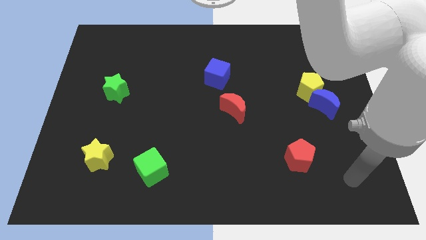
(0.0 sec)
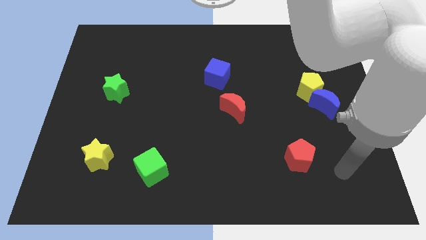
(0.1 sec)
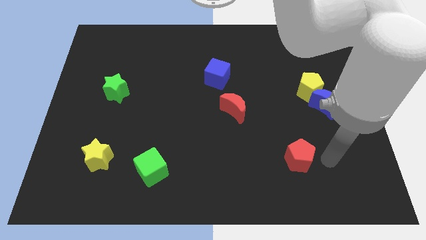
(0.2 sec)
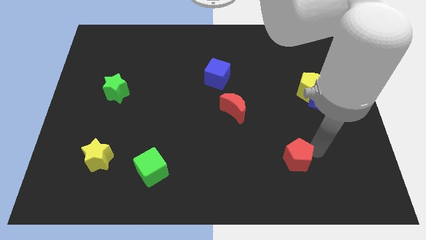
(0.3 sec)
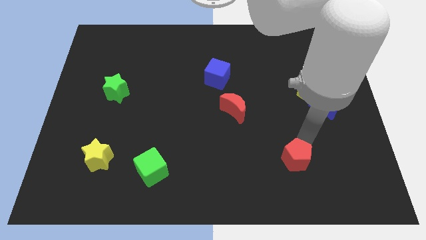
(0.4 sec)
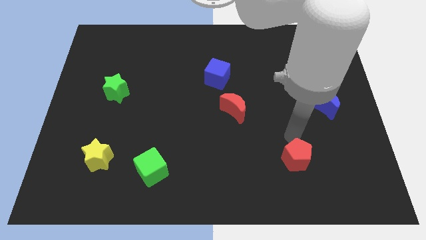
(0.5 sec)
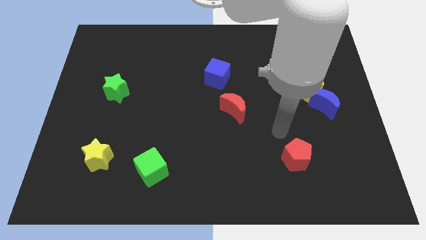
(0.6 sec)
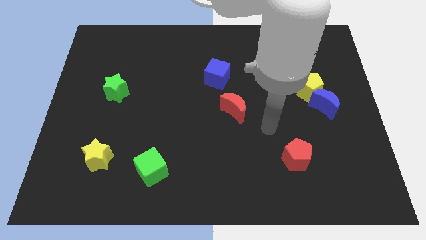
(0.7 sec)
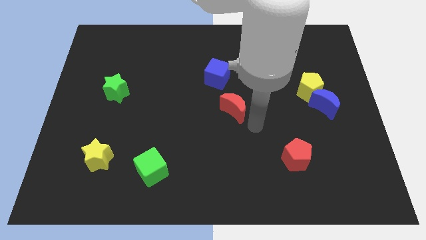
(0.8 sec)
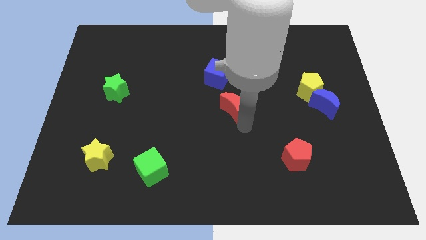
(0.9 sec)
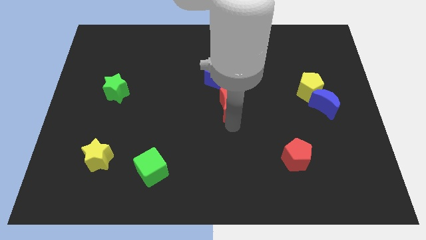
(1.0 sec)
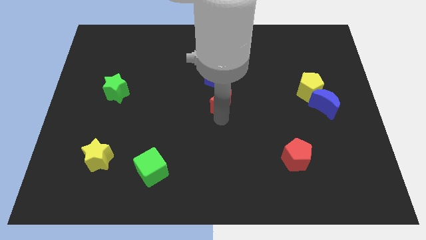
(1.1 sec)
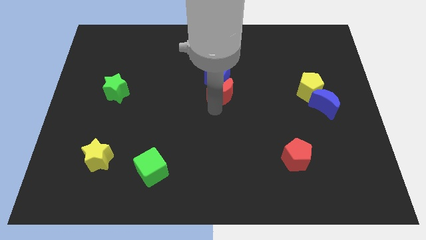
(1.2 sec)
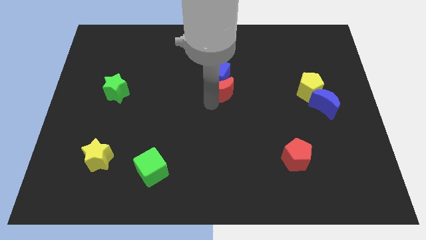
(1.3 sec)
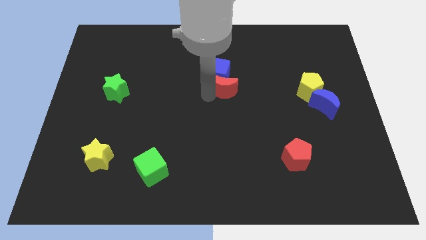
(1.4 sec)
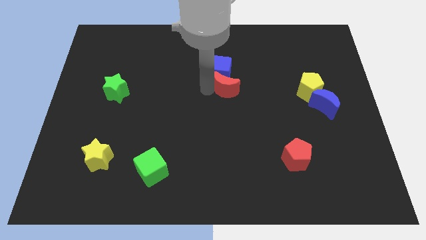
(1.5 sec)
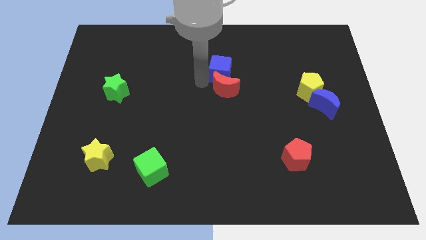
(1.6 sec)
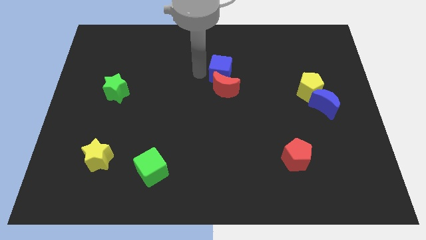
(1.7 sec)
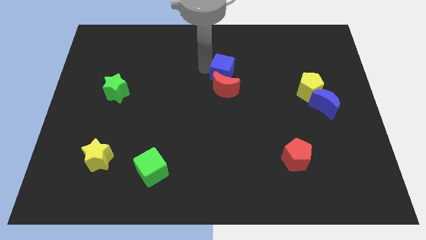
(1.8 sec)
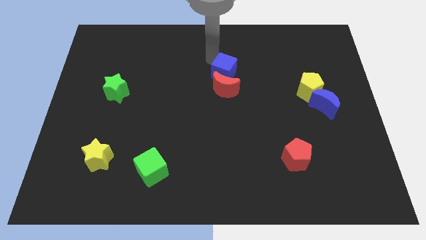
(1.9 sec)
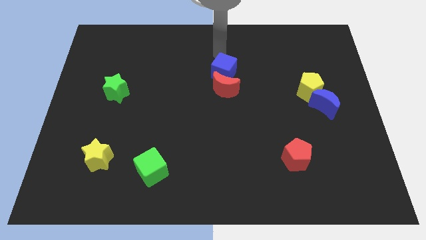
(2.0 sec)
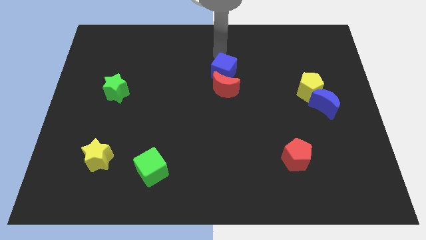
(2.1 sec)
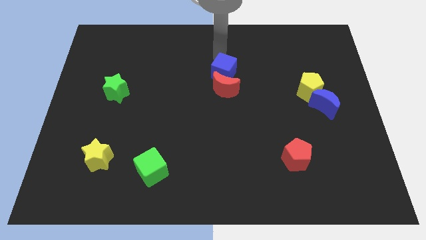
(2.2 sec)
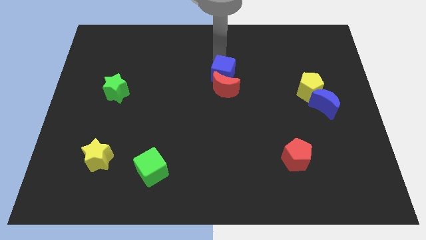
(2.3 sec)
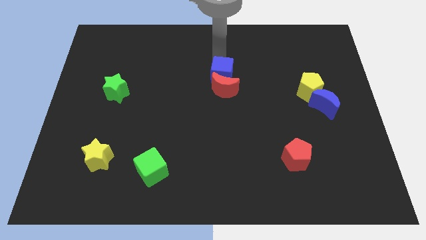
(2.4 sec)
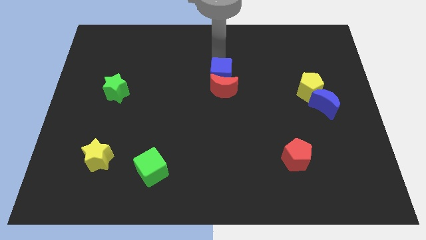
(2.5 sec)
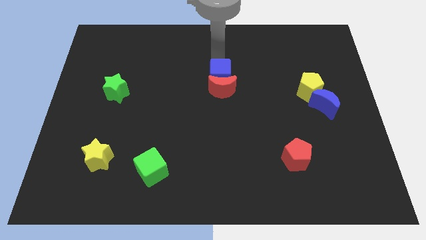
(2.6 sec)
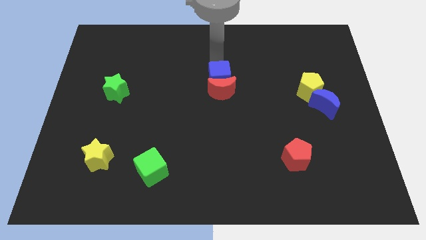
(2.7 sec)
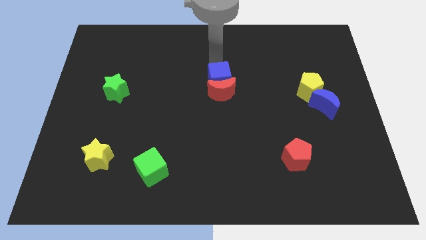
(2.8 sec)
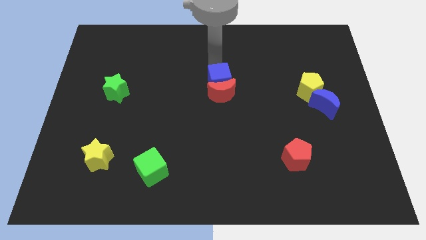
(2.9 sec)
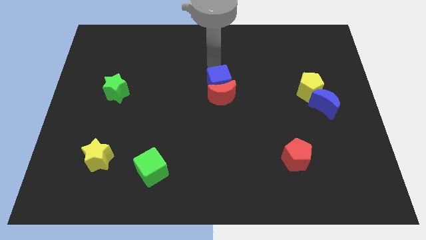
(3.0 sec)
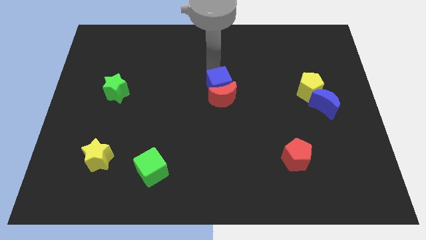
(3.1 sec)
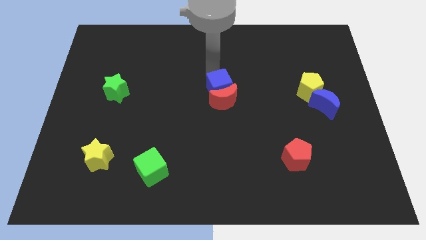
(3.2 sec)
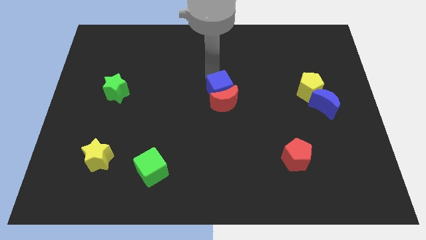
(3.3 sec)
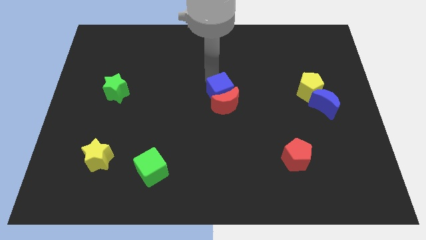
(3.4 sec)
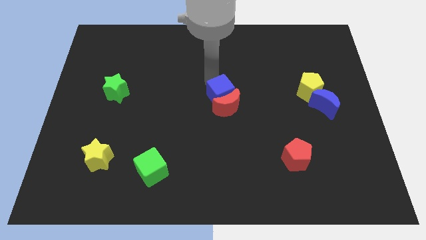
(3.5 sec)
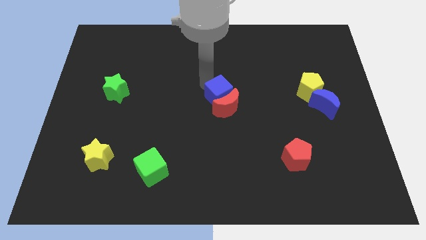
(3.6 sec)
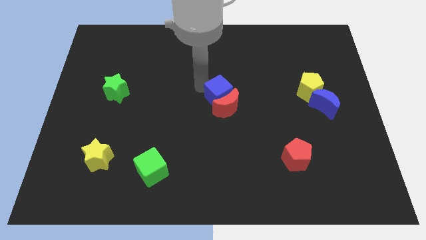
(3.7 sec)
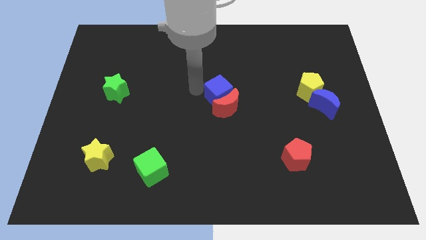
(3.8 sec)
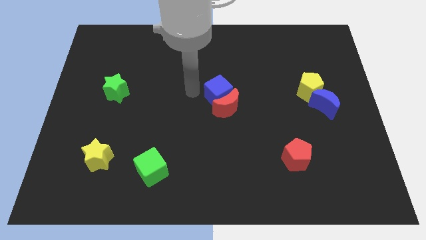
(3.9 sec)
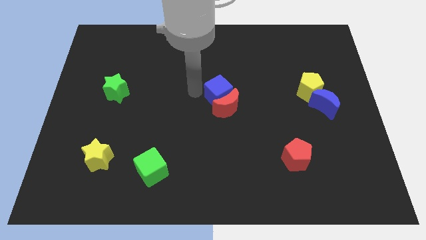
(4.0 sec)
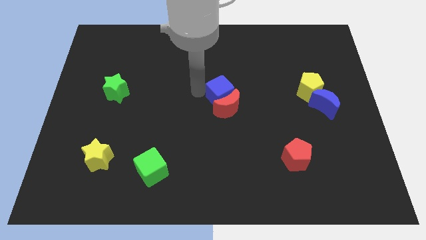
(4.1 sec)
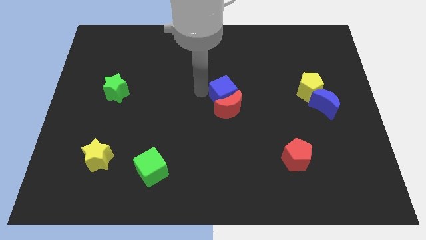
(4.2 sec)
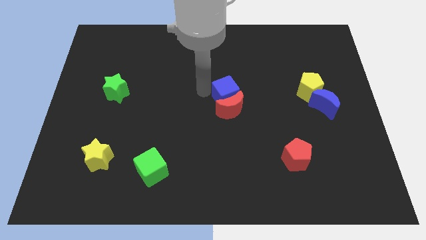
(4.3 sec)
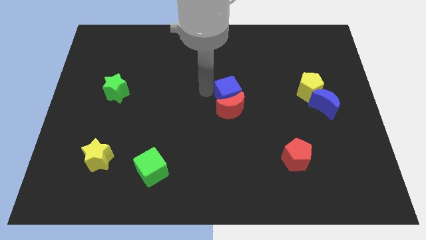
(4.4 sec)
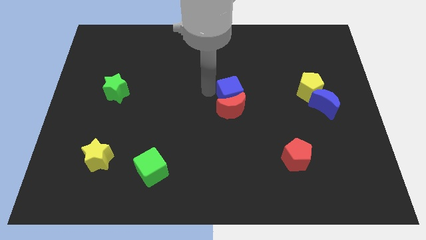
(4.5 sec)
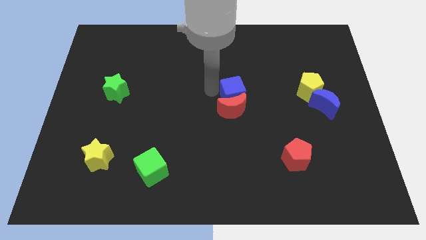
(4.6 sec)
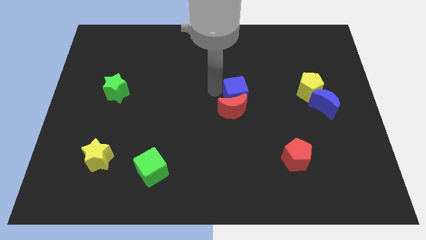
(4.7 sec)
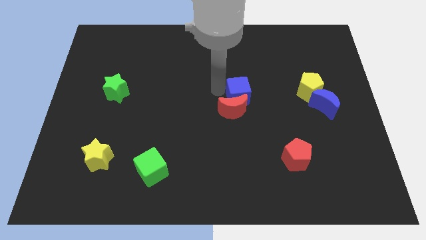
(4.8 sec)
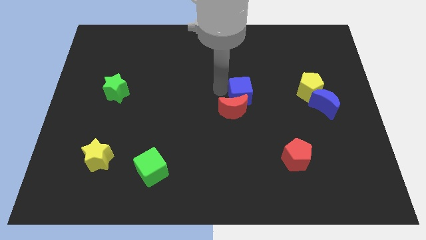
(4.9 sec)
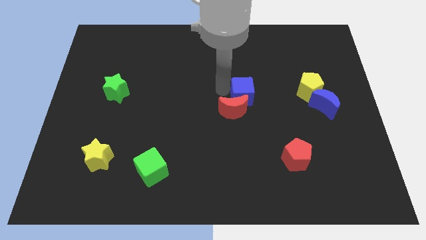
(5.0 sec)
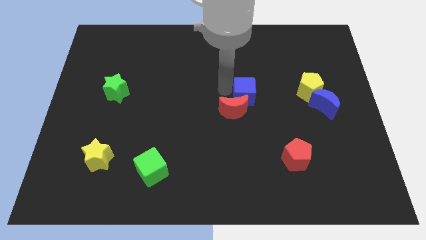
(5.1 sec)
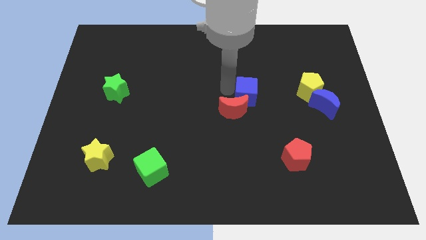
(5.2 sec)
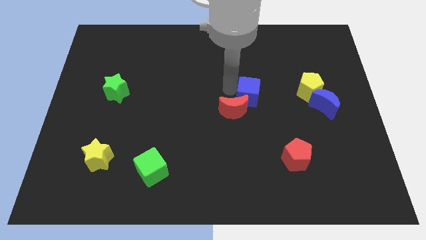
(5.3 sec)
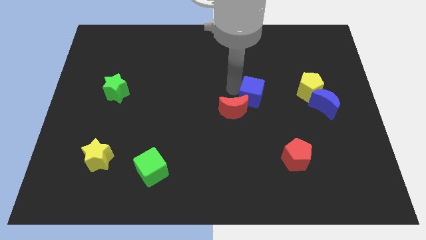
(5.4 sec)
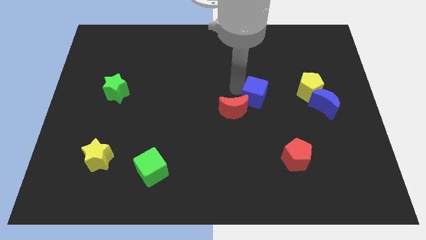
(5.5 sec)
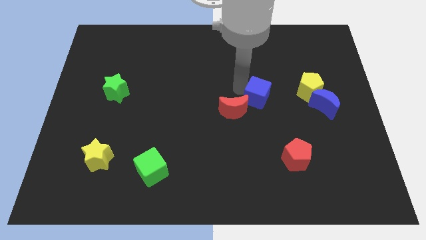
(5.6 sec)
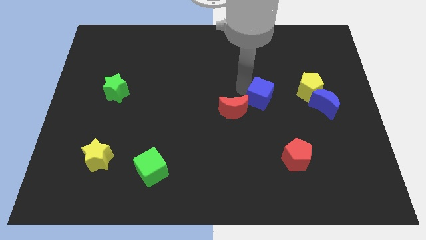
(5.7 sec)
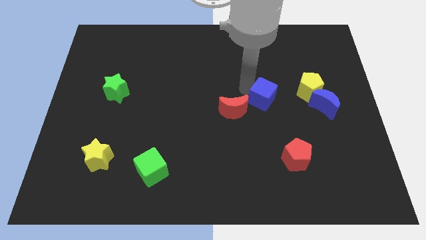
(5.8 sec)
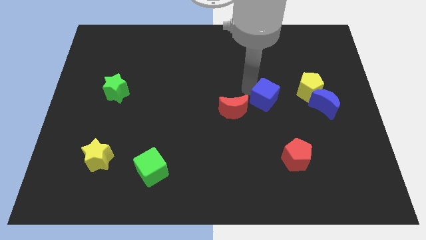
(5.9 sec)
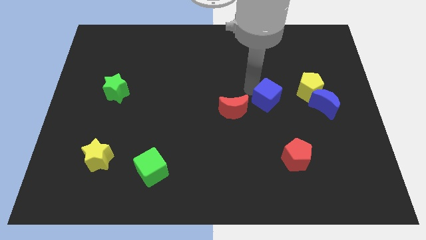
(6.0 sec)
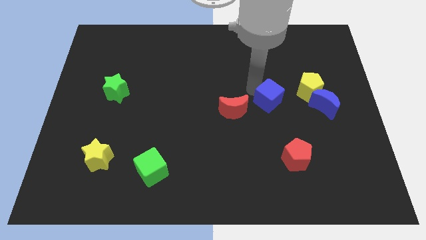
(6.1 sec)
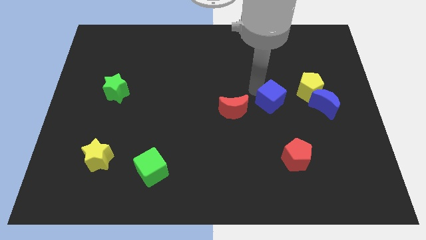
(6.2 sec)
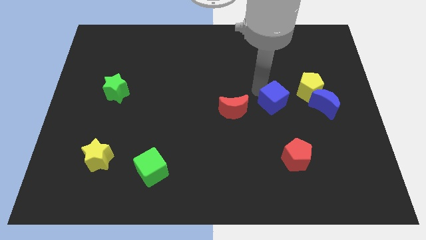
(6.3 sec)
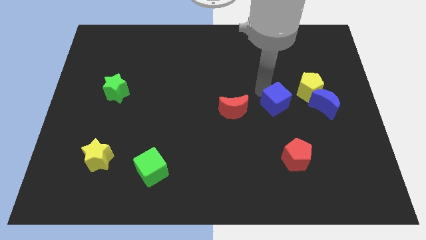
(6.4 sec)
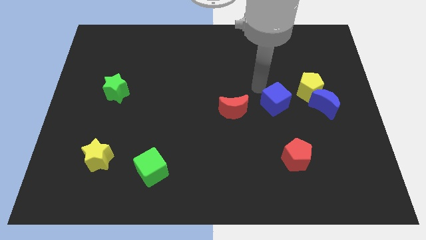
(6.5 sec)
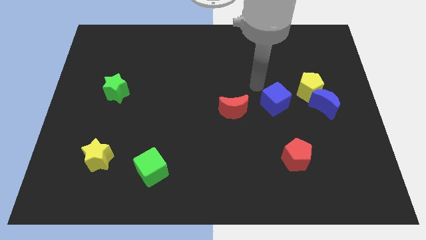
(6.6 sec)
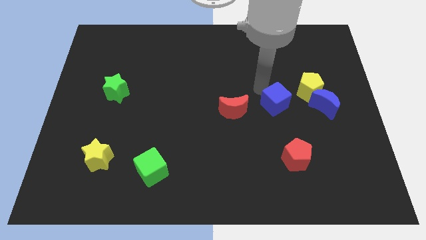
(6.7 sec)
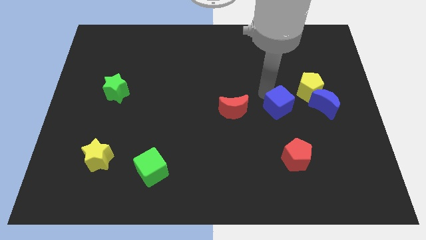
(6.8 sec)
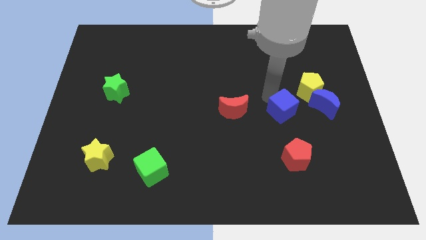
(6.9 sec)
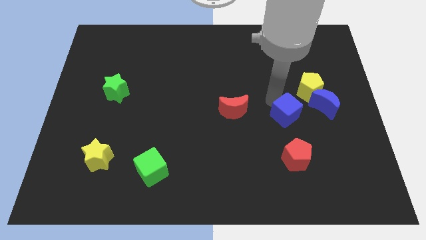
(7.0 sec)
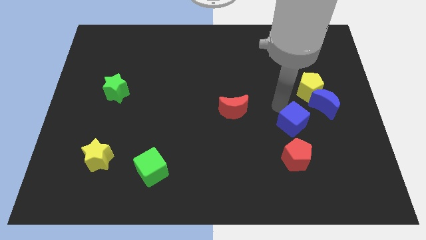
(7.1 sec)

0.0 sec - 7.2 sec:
move the blue cube diagonally down and right

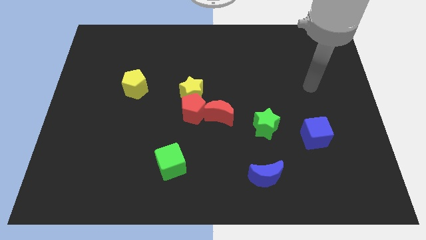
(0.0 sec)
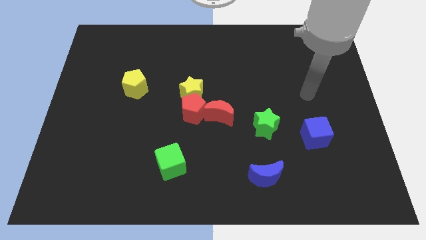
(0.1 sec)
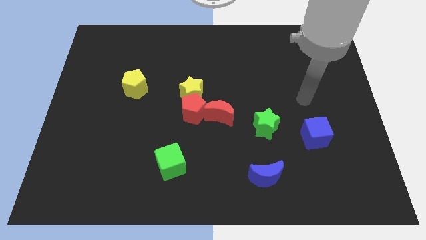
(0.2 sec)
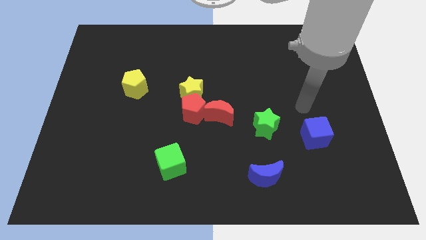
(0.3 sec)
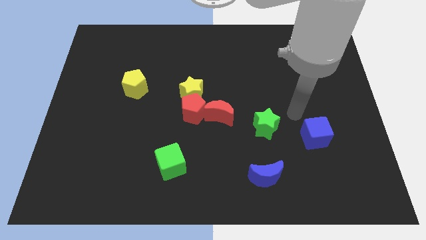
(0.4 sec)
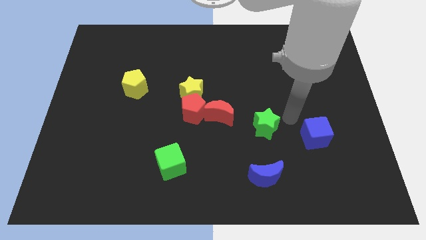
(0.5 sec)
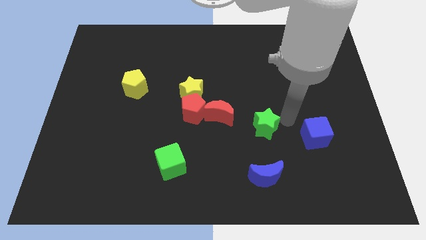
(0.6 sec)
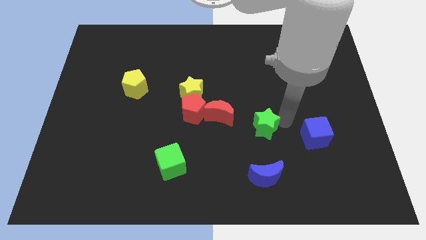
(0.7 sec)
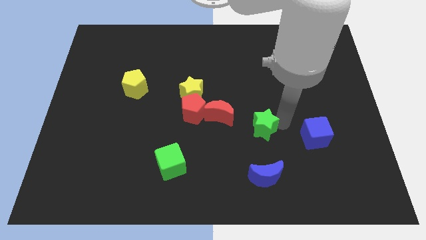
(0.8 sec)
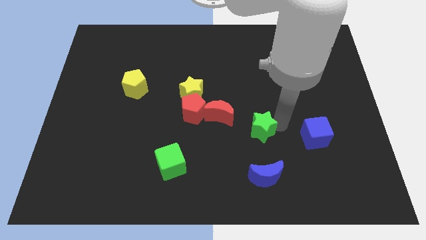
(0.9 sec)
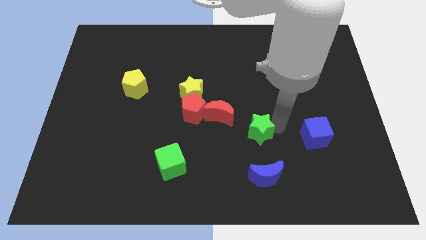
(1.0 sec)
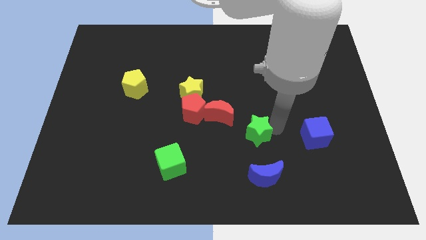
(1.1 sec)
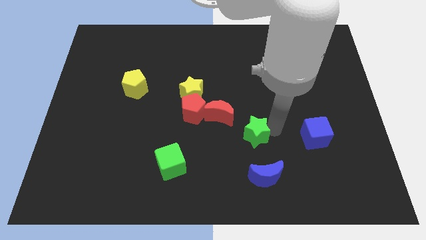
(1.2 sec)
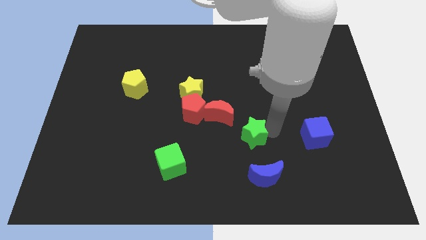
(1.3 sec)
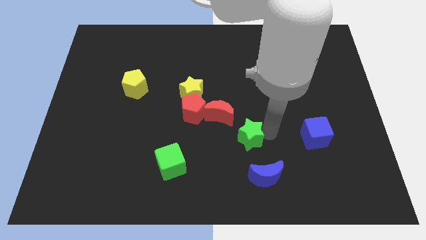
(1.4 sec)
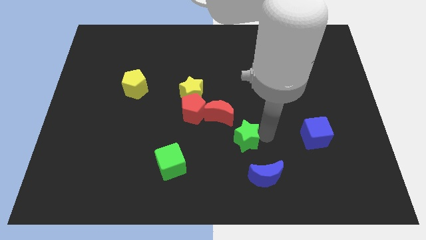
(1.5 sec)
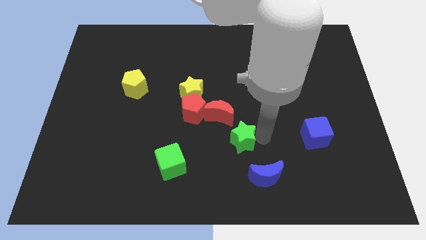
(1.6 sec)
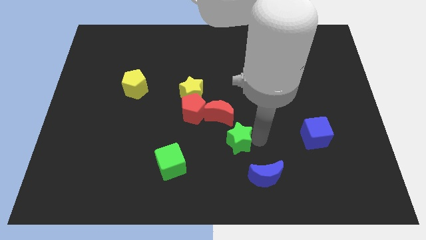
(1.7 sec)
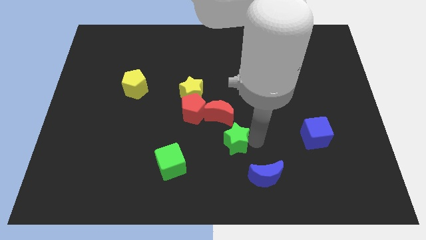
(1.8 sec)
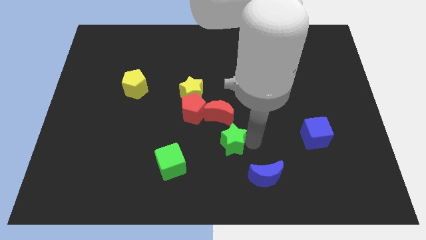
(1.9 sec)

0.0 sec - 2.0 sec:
slide the green star left slightly
